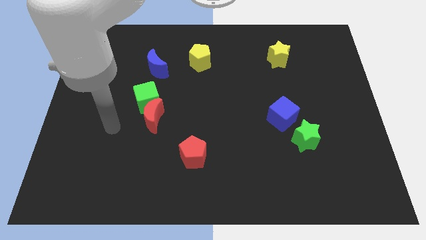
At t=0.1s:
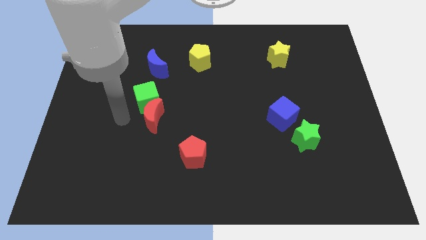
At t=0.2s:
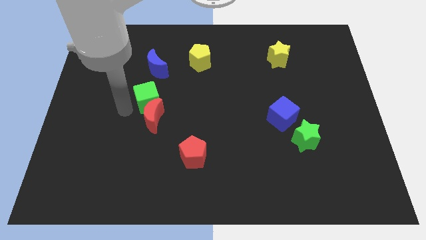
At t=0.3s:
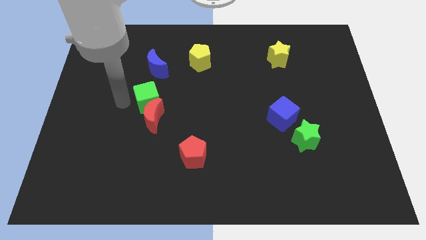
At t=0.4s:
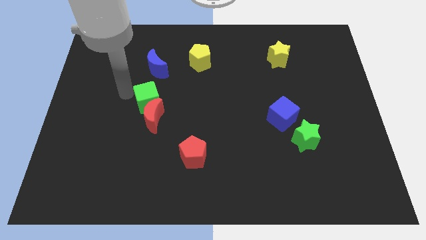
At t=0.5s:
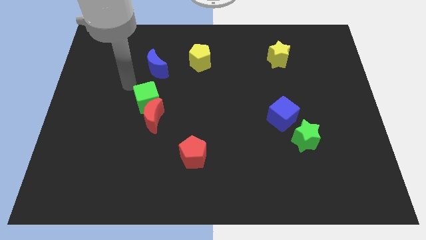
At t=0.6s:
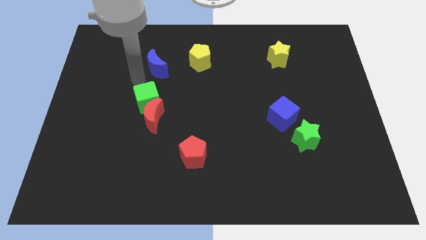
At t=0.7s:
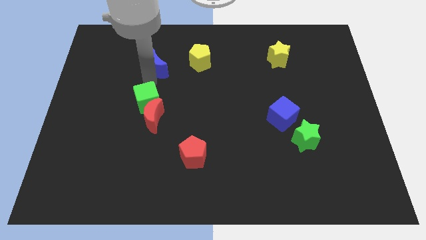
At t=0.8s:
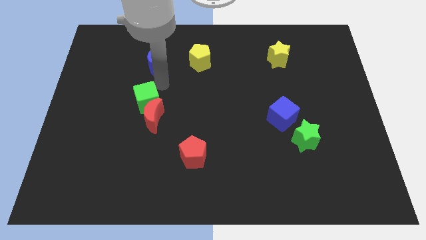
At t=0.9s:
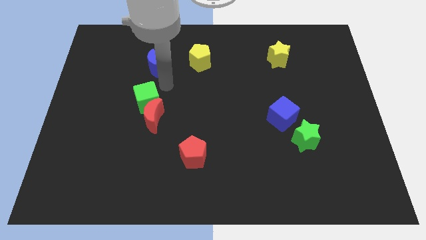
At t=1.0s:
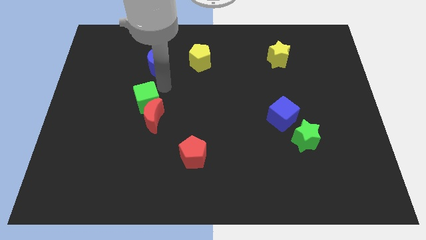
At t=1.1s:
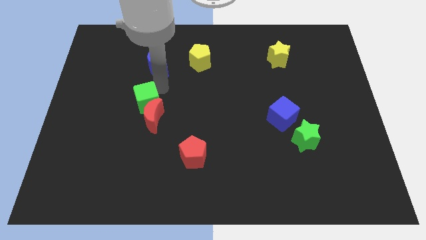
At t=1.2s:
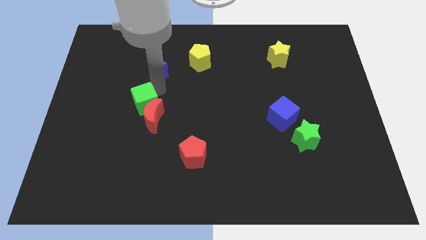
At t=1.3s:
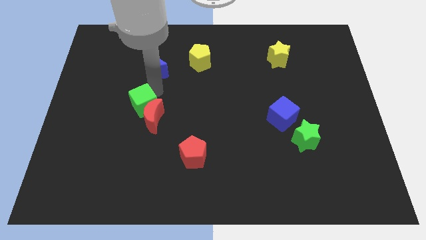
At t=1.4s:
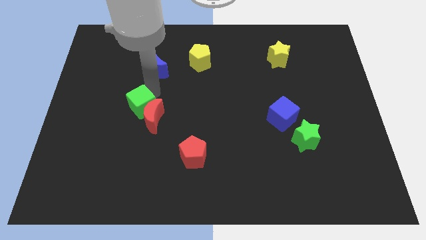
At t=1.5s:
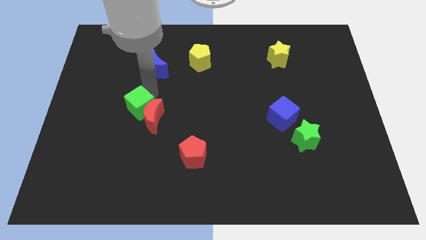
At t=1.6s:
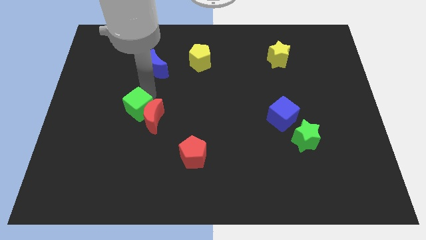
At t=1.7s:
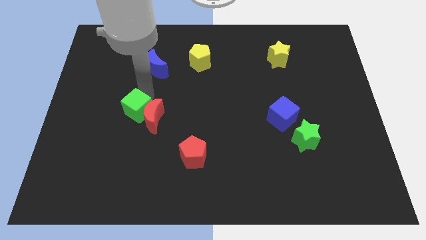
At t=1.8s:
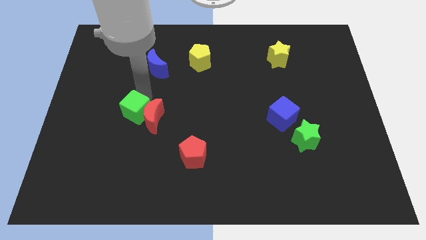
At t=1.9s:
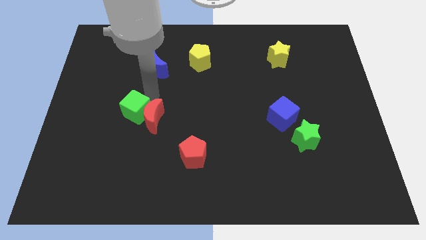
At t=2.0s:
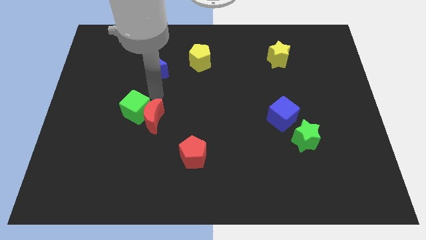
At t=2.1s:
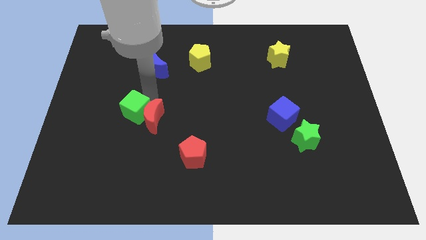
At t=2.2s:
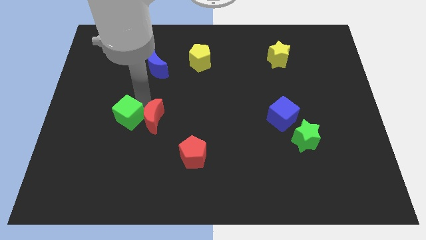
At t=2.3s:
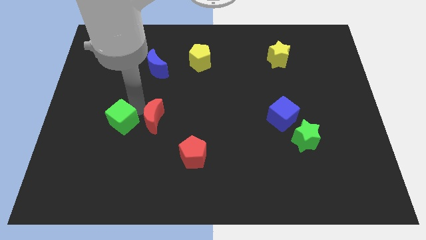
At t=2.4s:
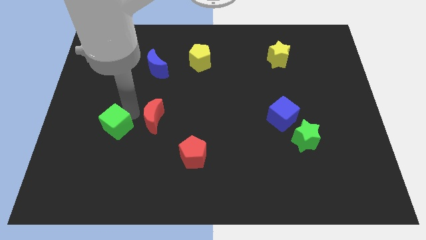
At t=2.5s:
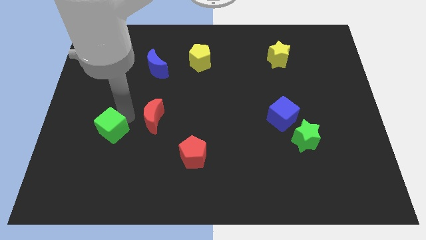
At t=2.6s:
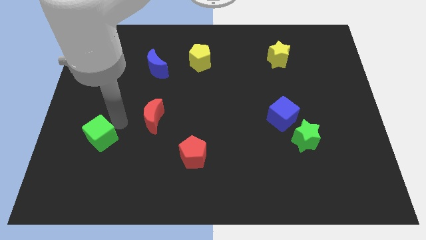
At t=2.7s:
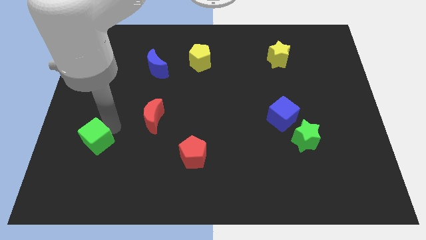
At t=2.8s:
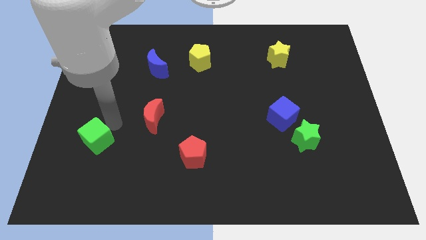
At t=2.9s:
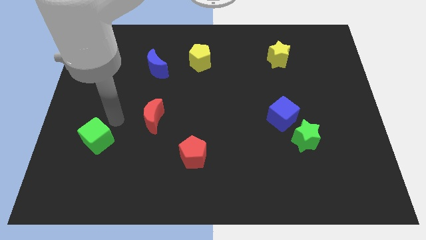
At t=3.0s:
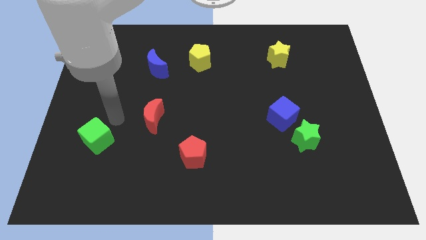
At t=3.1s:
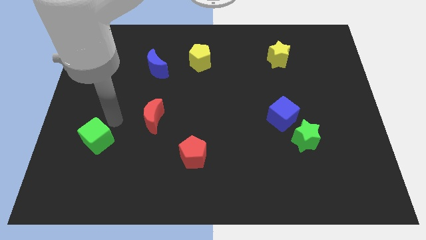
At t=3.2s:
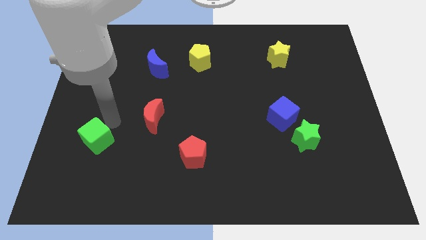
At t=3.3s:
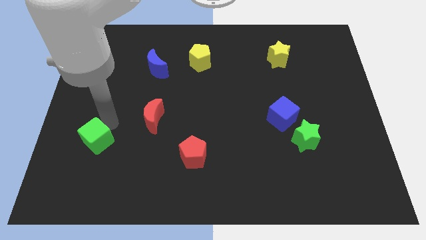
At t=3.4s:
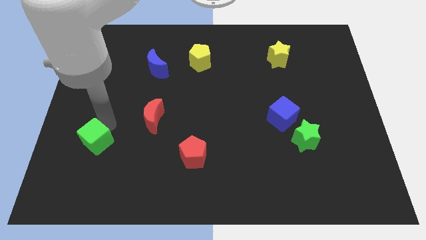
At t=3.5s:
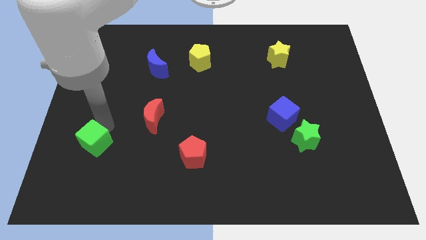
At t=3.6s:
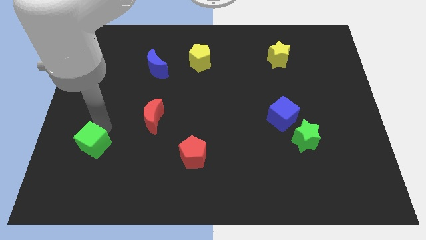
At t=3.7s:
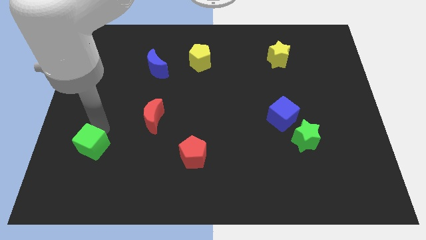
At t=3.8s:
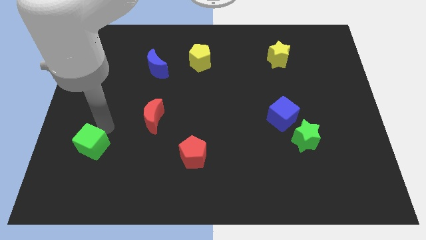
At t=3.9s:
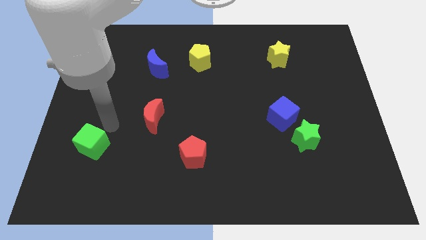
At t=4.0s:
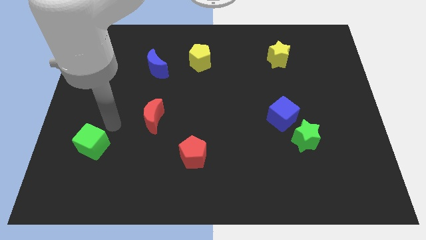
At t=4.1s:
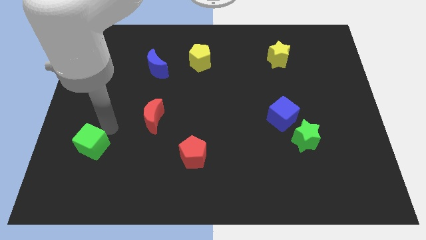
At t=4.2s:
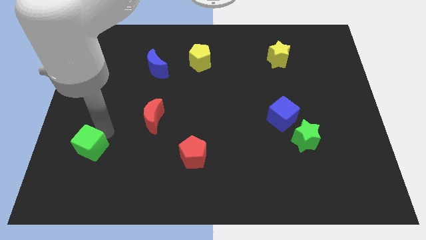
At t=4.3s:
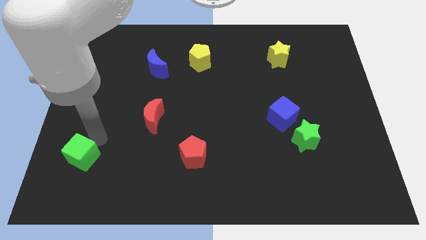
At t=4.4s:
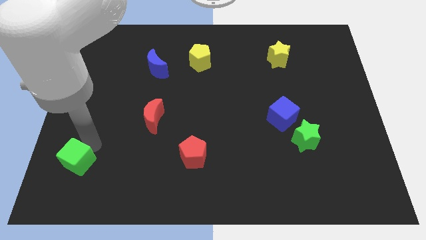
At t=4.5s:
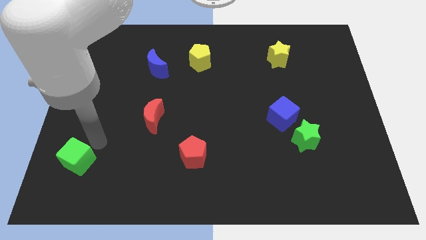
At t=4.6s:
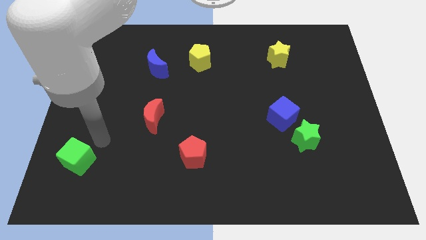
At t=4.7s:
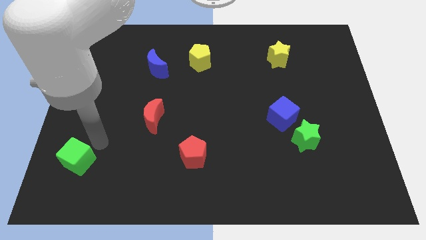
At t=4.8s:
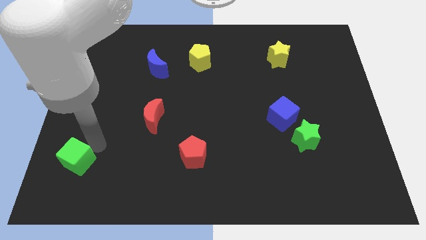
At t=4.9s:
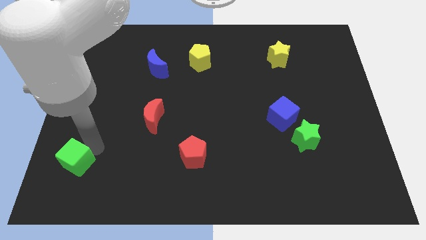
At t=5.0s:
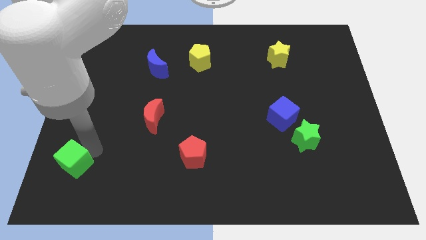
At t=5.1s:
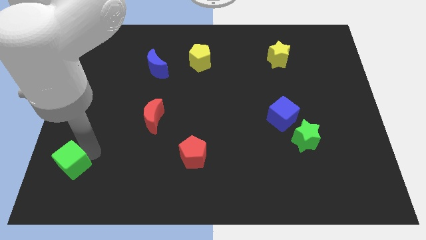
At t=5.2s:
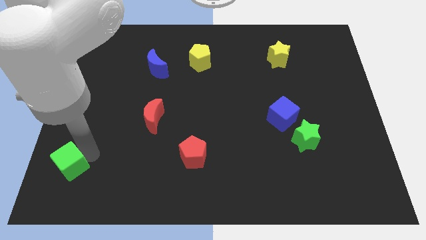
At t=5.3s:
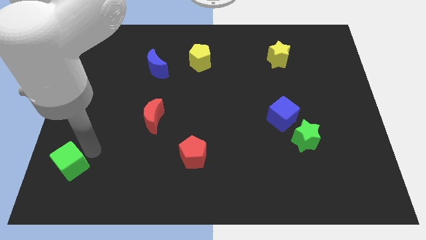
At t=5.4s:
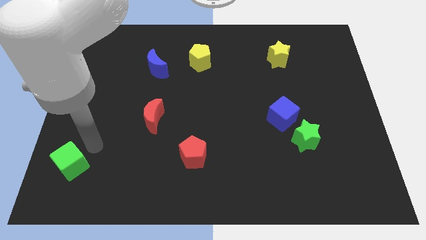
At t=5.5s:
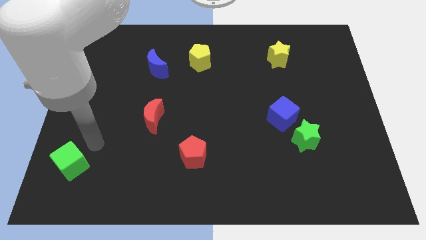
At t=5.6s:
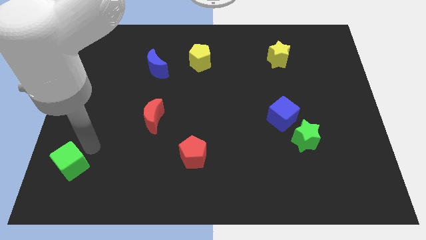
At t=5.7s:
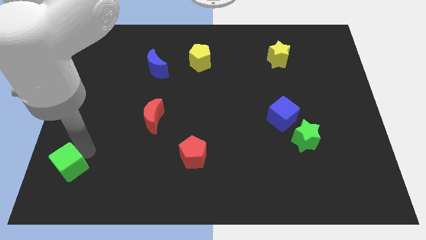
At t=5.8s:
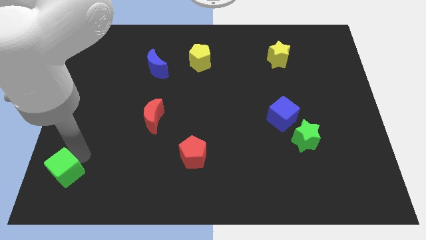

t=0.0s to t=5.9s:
push the green cube to the bottom left corner

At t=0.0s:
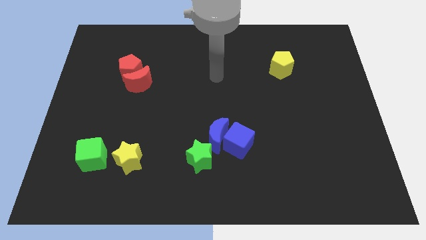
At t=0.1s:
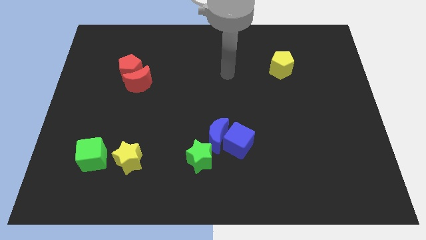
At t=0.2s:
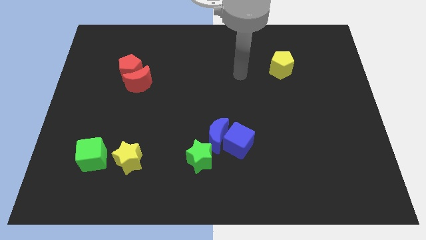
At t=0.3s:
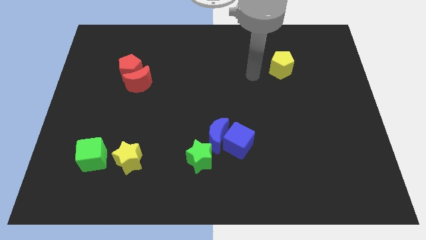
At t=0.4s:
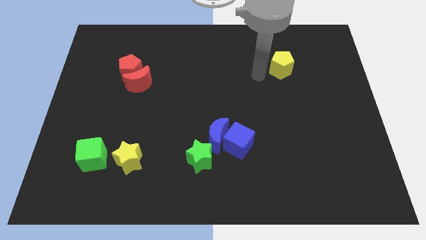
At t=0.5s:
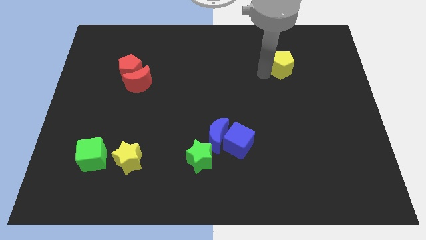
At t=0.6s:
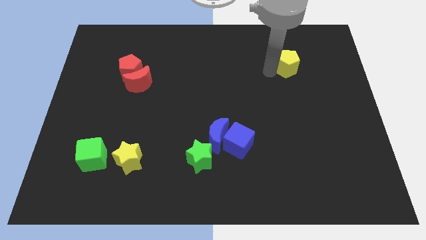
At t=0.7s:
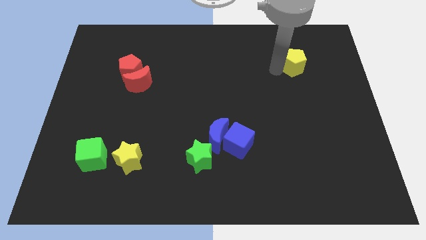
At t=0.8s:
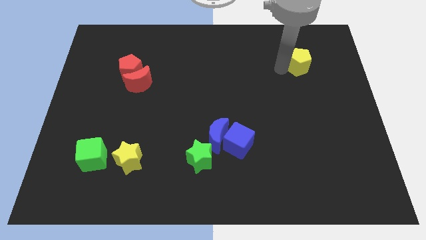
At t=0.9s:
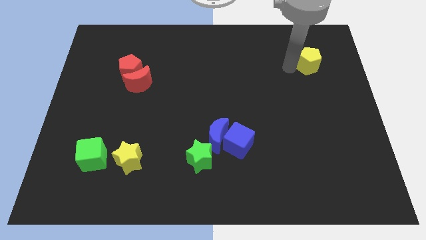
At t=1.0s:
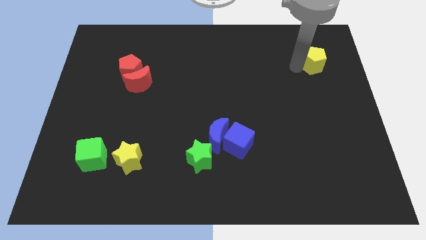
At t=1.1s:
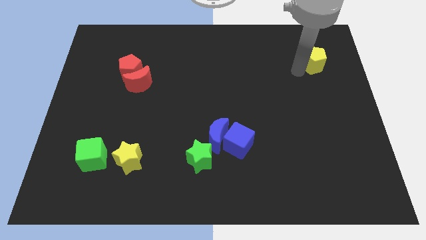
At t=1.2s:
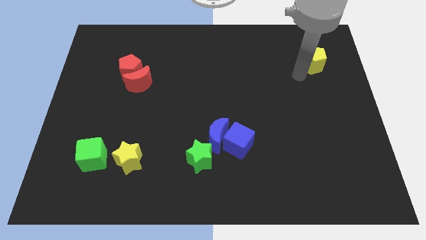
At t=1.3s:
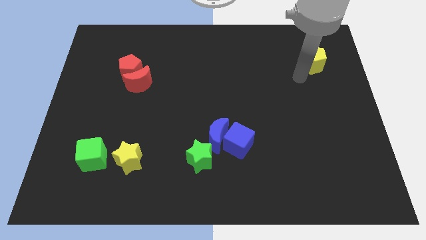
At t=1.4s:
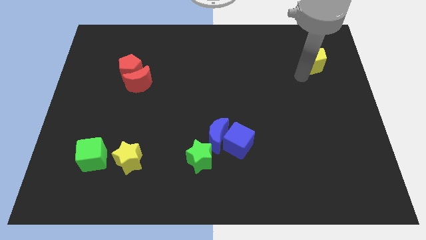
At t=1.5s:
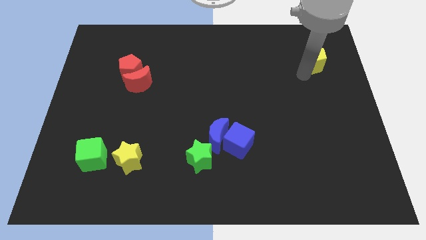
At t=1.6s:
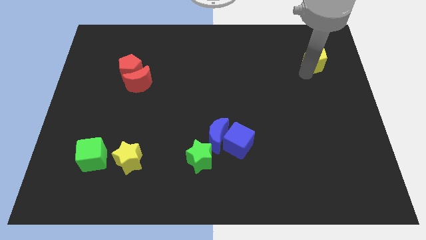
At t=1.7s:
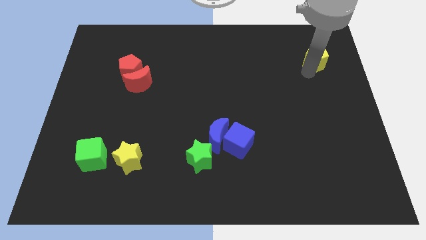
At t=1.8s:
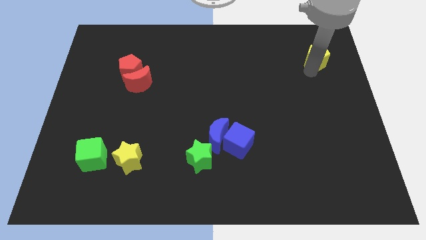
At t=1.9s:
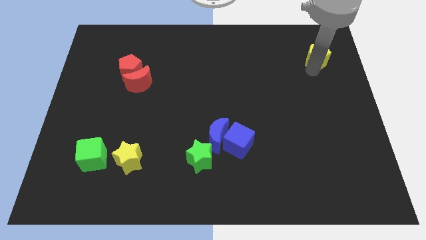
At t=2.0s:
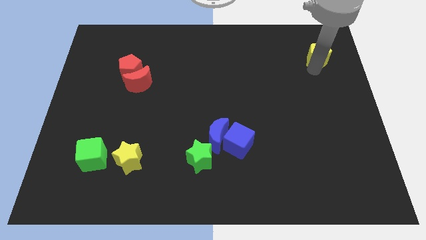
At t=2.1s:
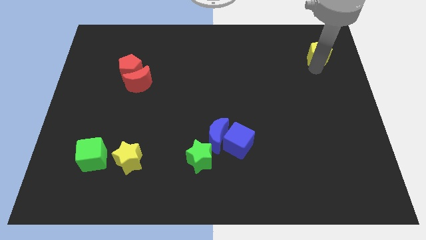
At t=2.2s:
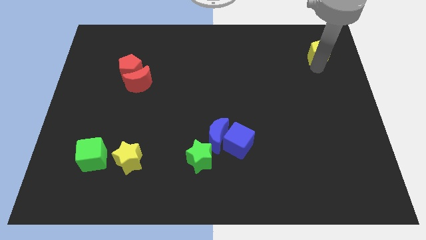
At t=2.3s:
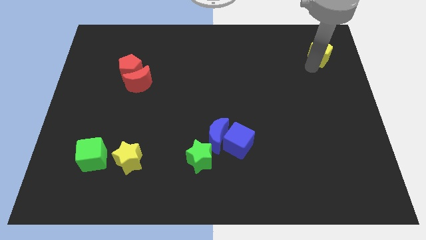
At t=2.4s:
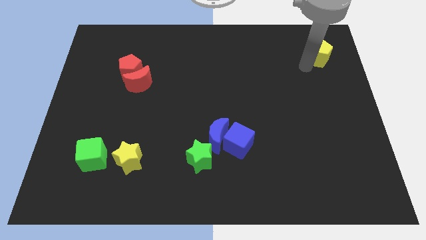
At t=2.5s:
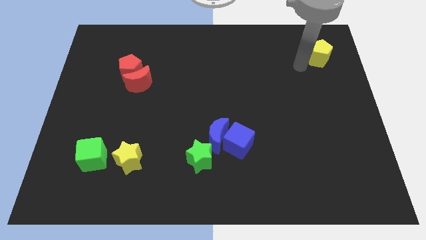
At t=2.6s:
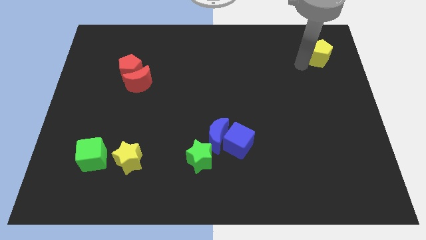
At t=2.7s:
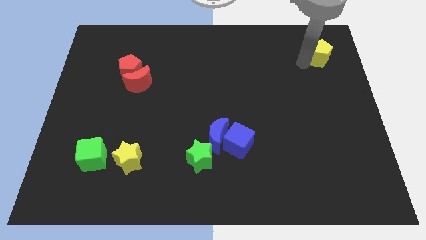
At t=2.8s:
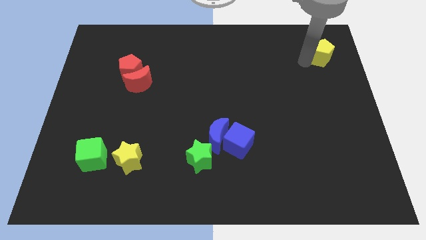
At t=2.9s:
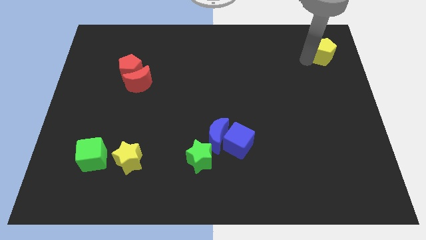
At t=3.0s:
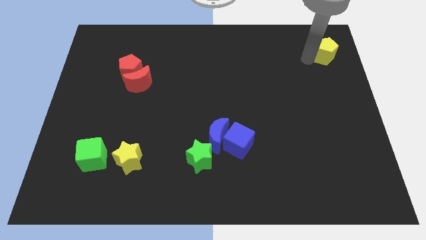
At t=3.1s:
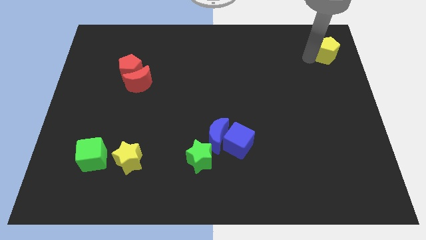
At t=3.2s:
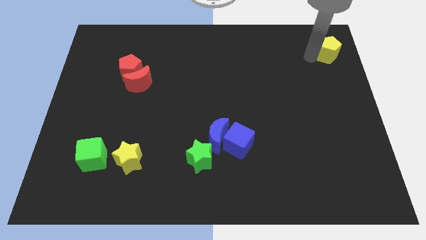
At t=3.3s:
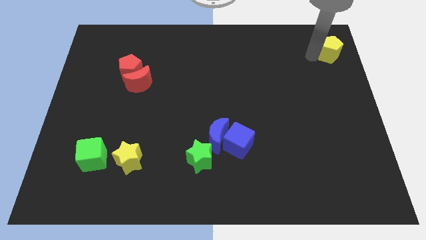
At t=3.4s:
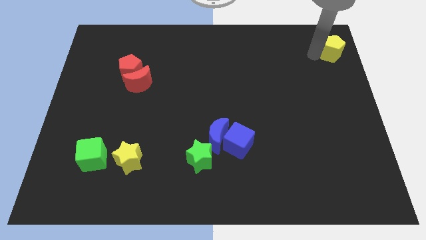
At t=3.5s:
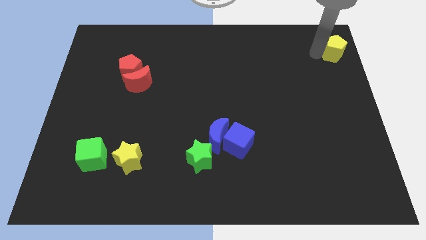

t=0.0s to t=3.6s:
move the yellow pentagon to the top right of the board
